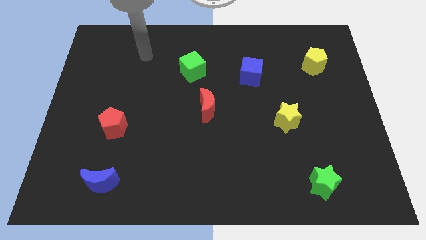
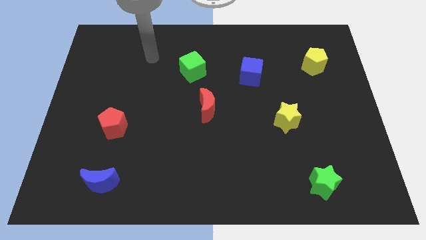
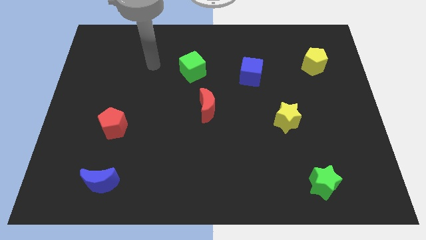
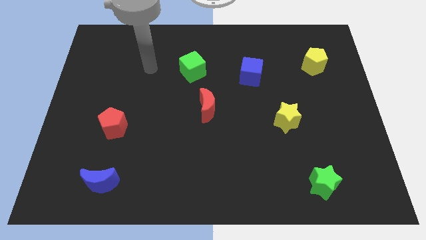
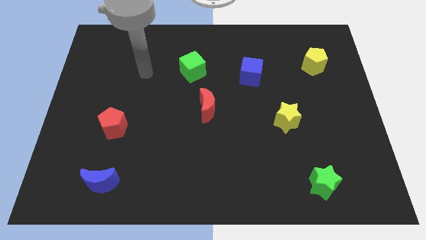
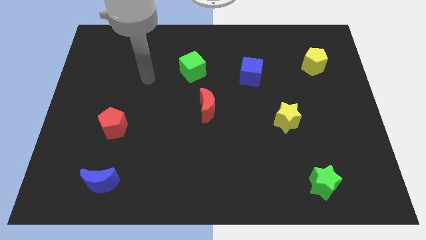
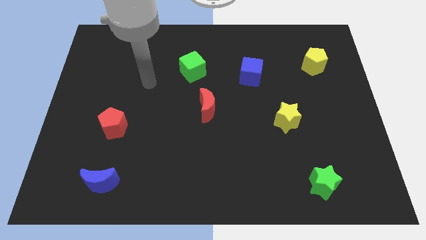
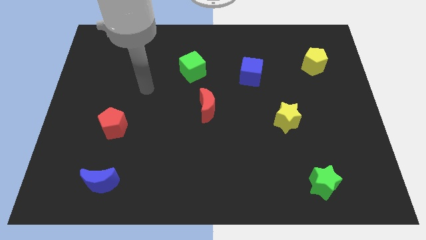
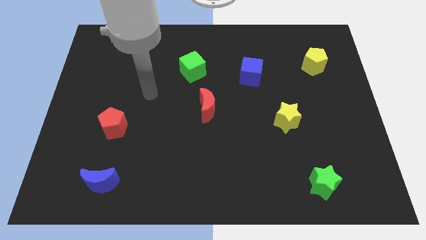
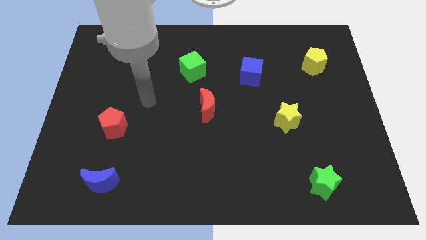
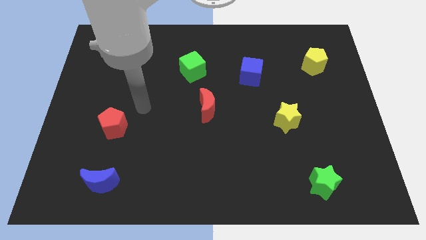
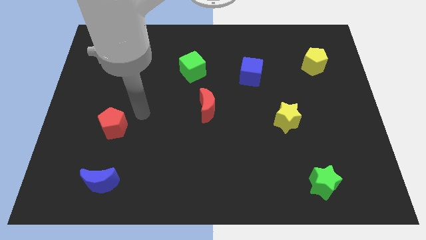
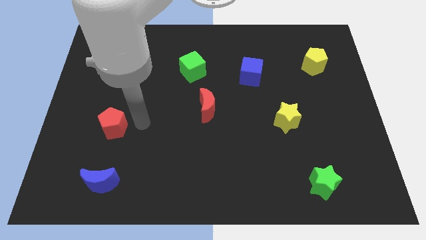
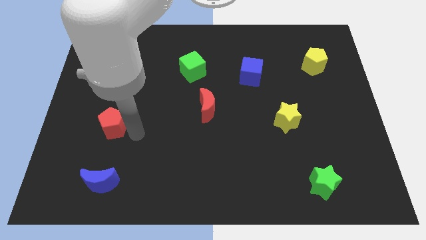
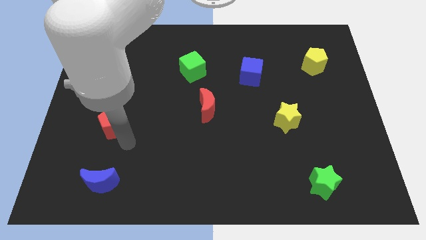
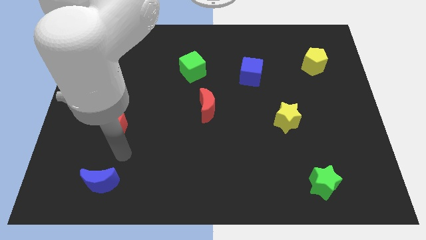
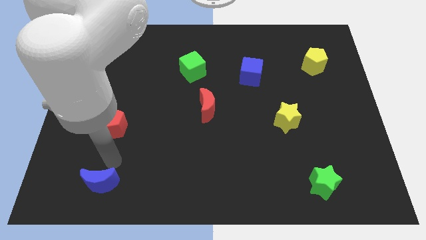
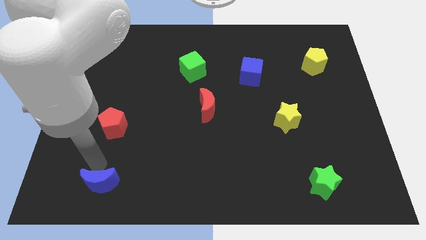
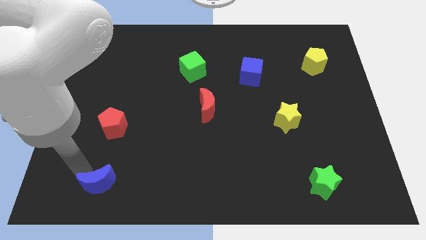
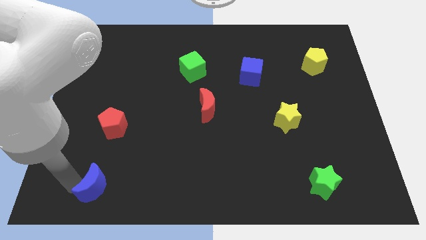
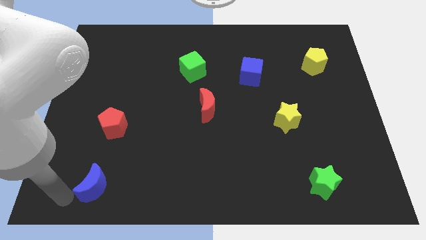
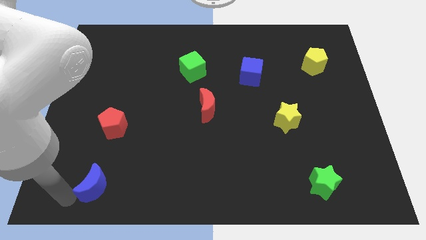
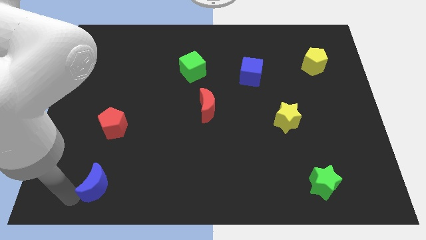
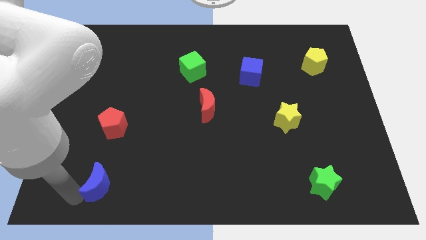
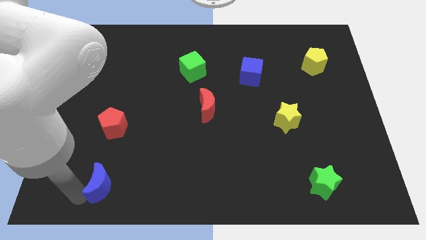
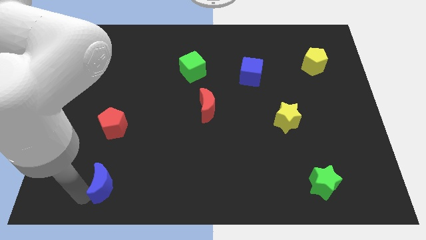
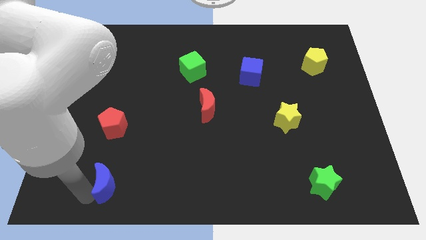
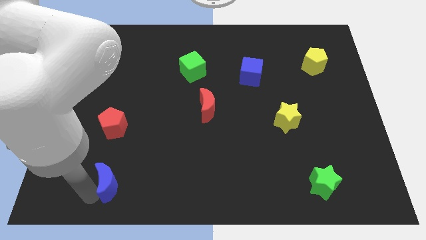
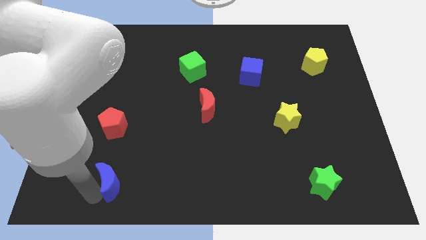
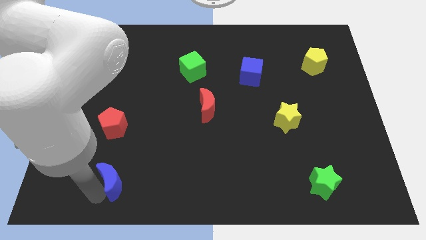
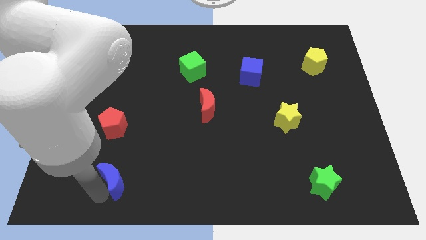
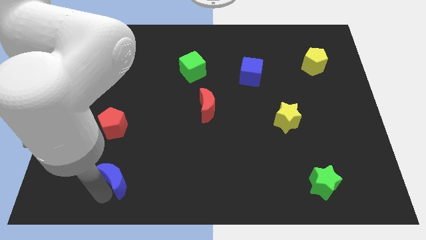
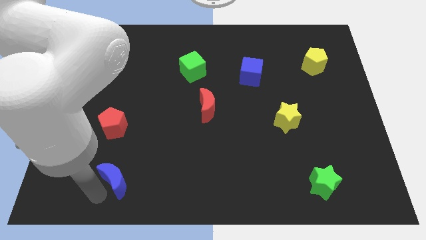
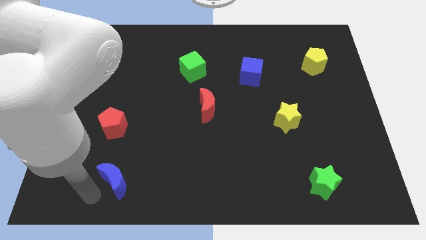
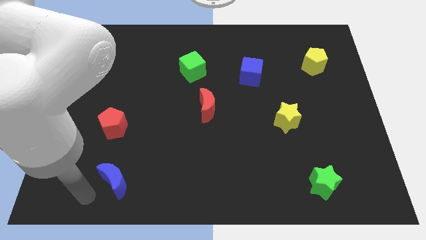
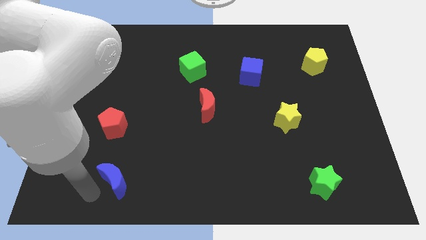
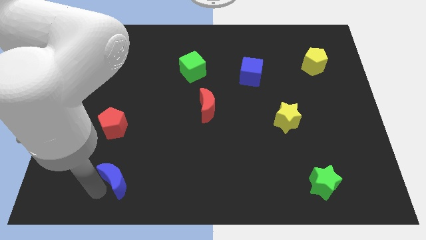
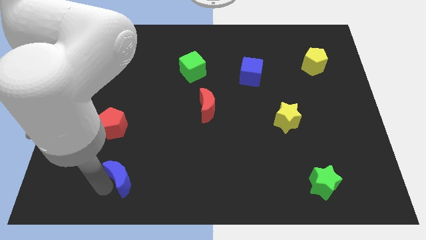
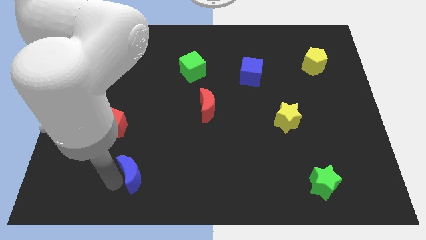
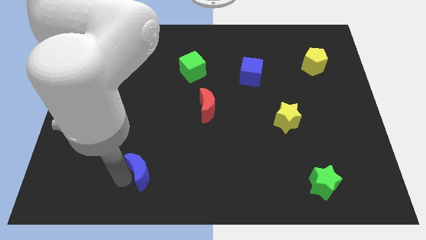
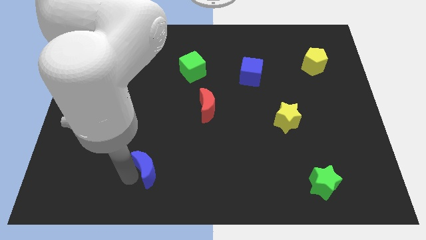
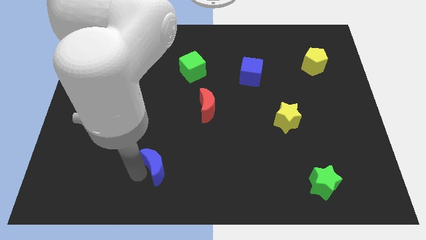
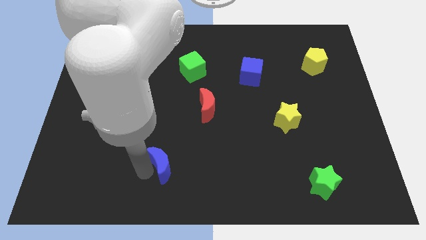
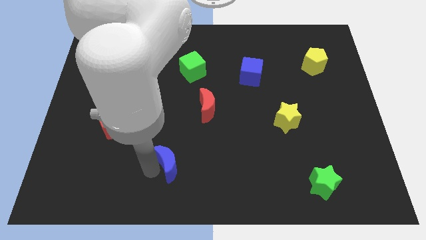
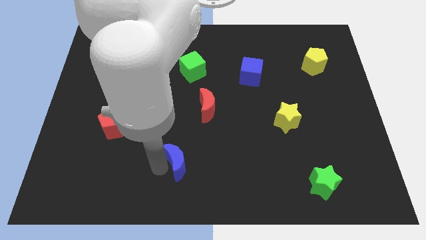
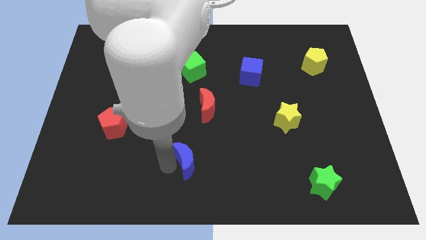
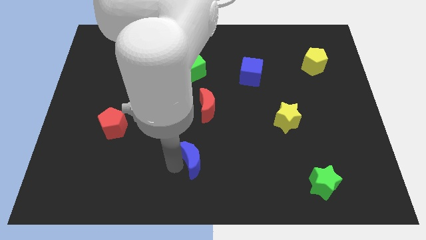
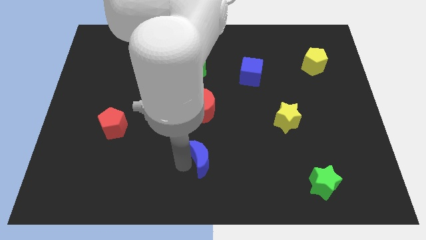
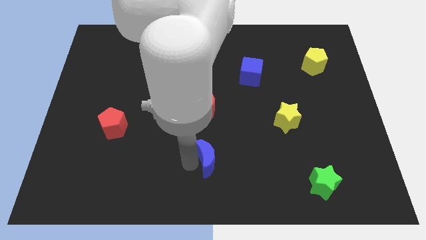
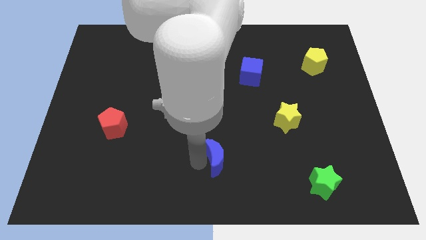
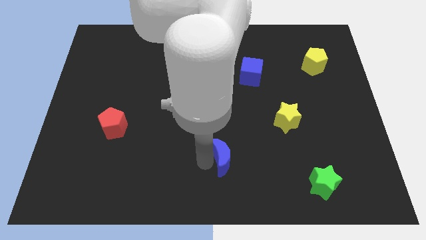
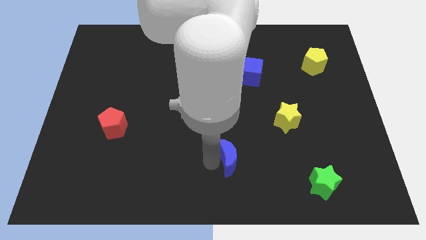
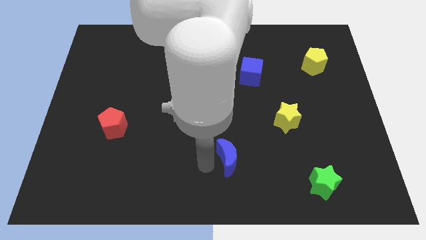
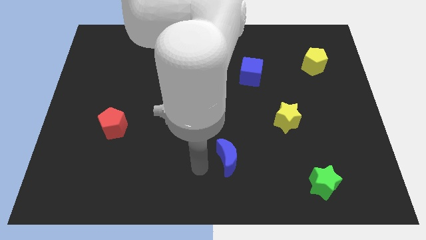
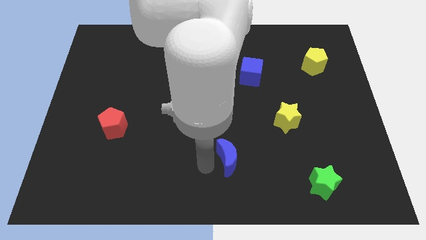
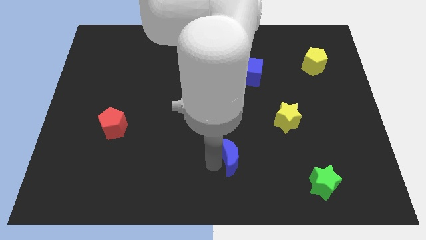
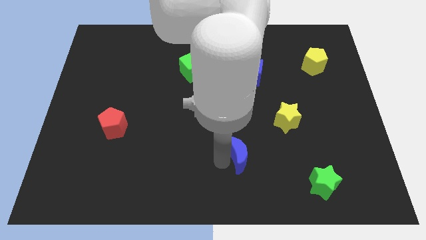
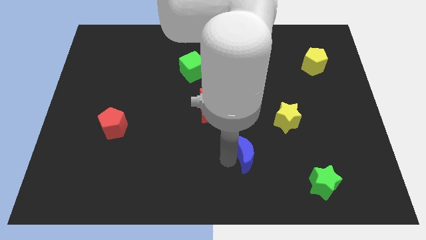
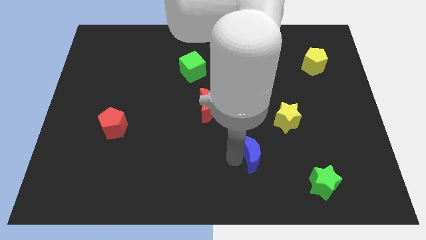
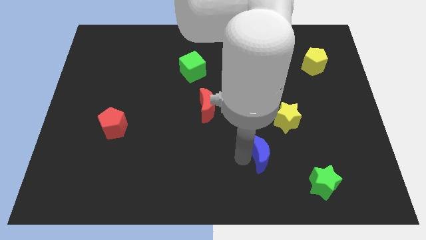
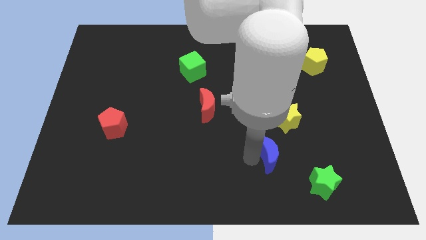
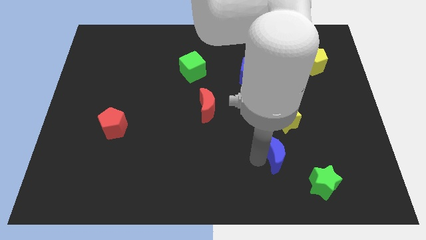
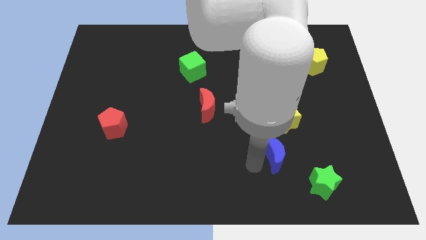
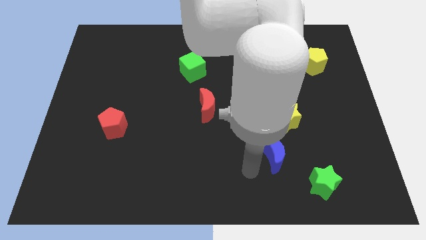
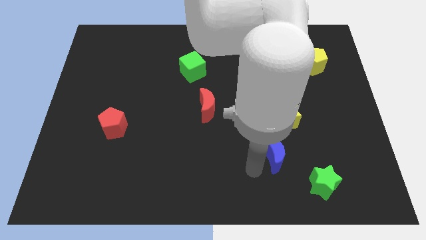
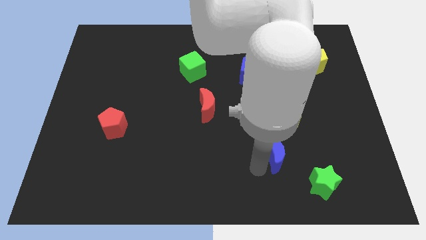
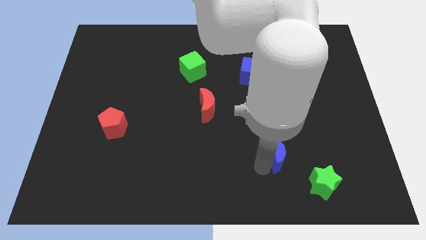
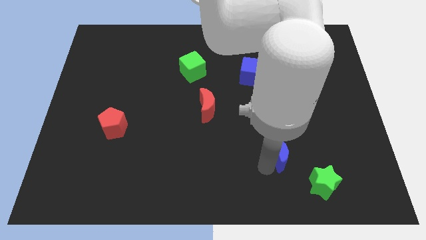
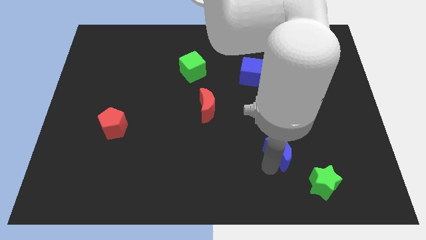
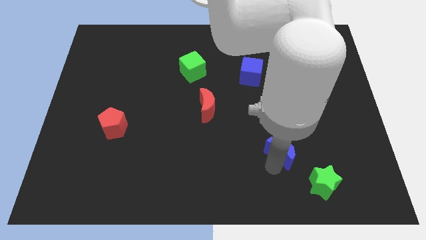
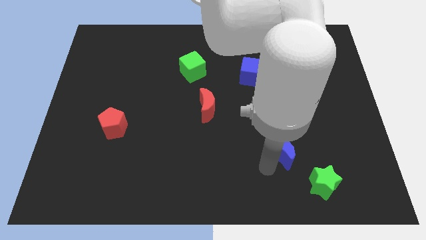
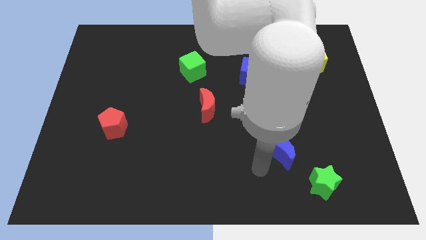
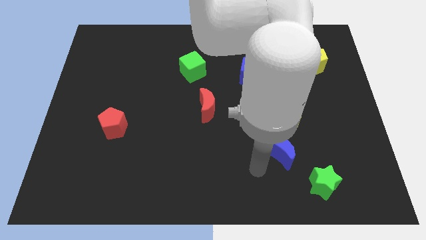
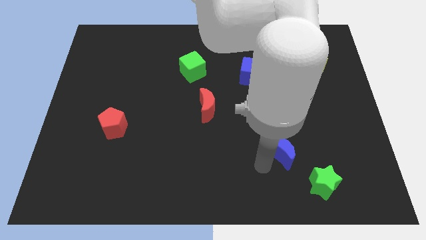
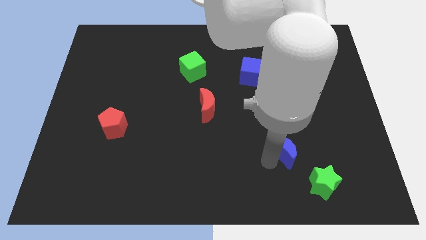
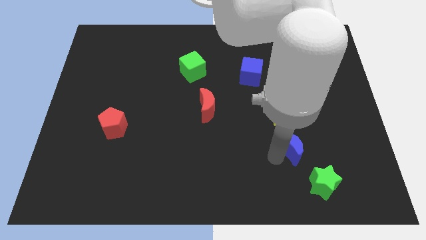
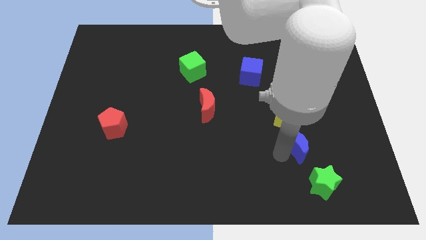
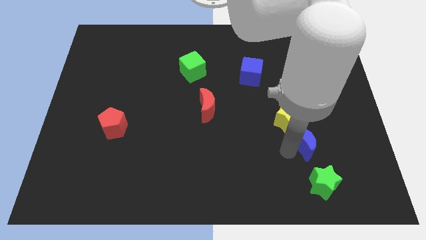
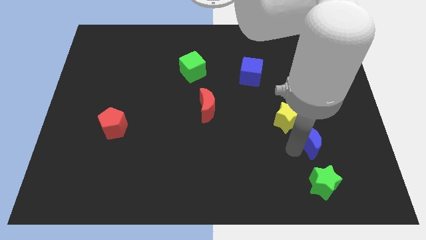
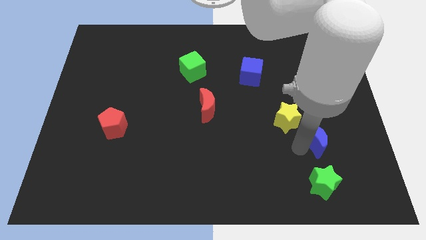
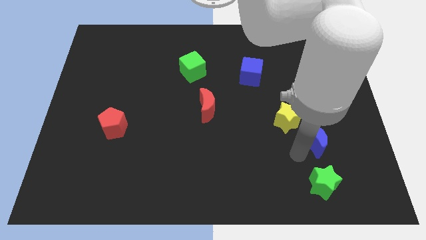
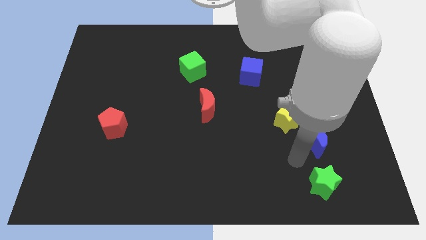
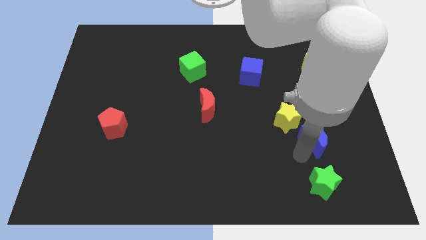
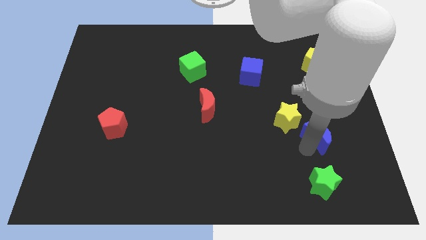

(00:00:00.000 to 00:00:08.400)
move the blue moon just right of the yellow star
